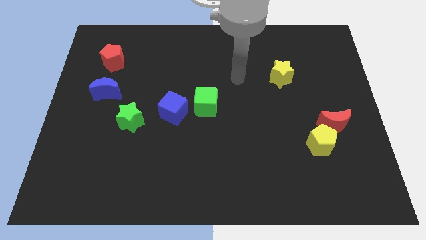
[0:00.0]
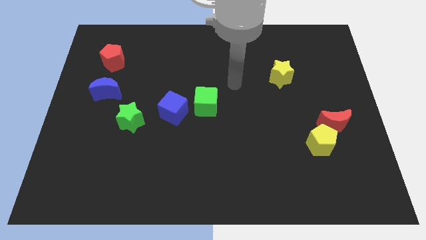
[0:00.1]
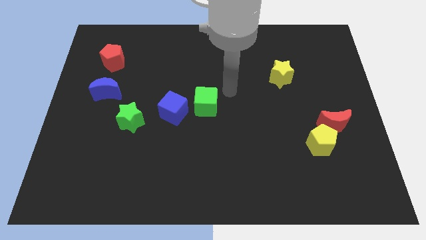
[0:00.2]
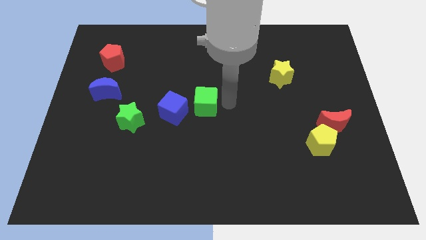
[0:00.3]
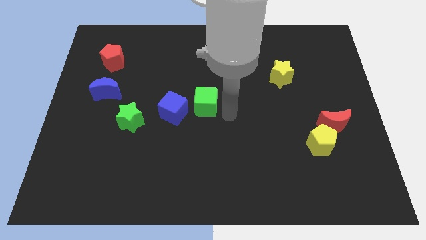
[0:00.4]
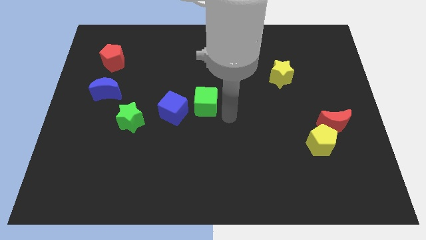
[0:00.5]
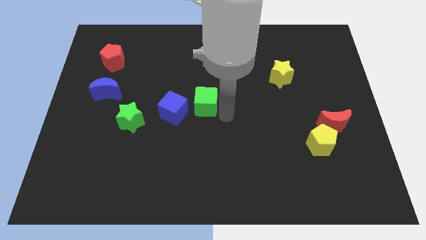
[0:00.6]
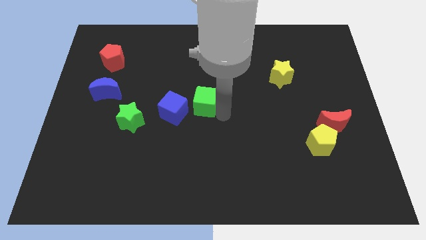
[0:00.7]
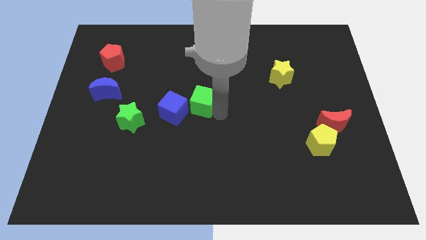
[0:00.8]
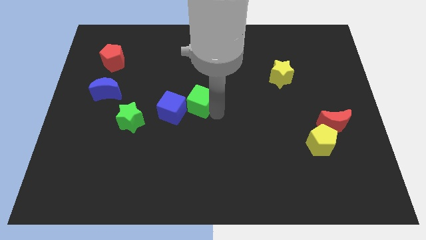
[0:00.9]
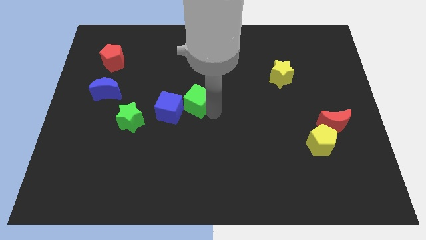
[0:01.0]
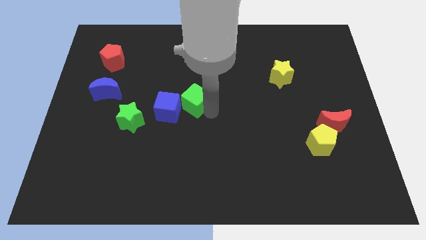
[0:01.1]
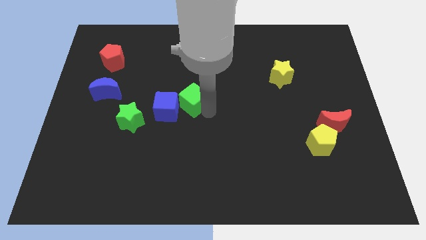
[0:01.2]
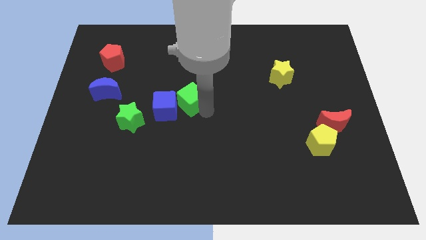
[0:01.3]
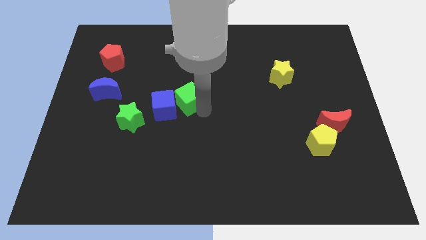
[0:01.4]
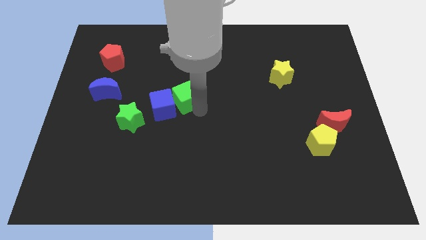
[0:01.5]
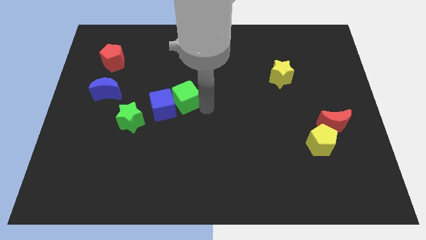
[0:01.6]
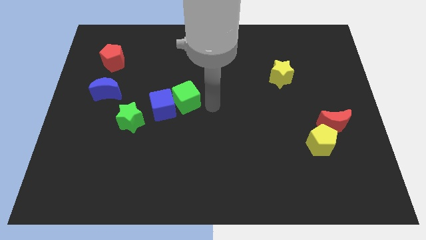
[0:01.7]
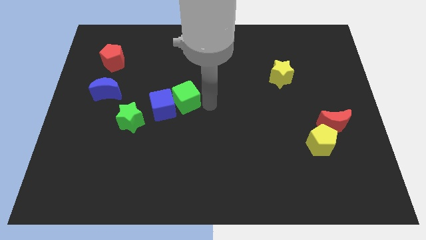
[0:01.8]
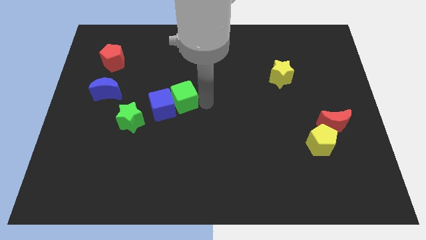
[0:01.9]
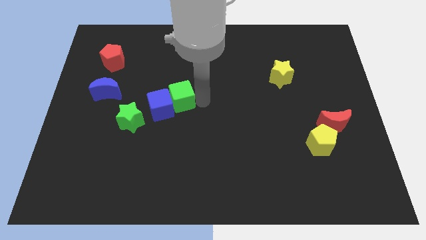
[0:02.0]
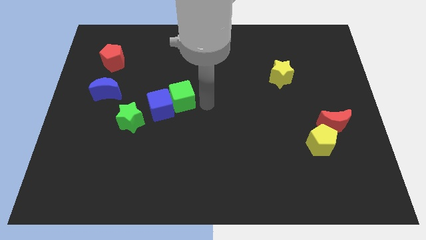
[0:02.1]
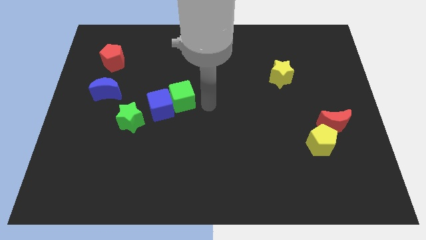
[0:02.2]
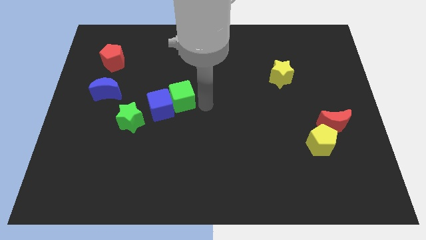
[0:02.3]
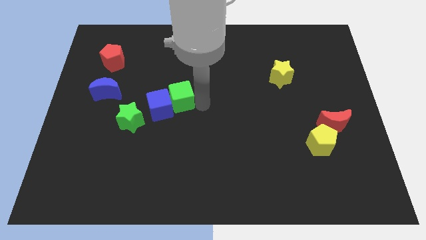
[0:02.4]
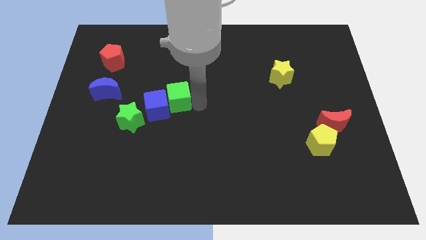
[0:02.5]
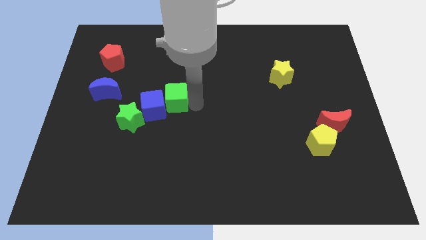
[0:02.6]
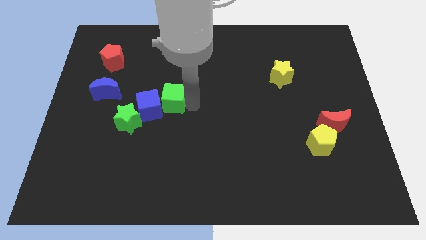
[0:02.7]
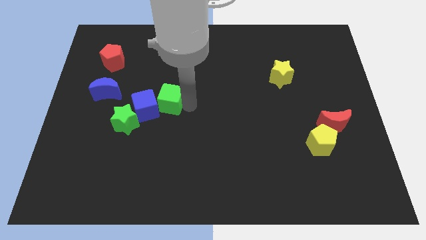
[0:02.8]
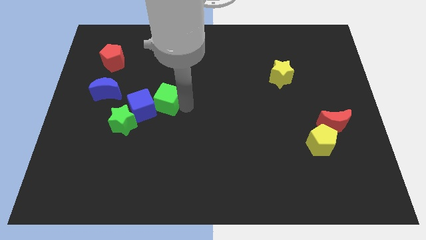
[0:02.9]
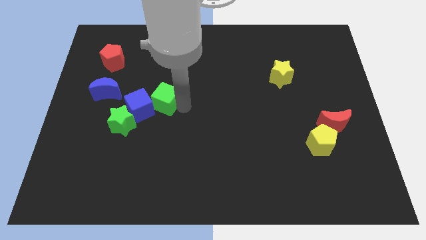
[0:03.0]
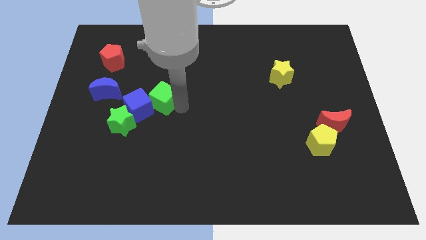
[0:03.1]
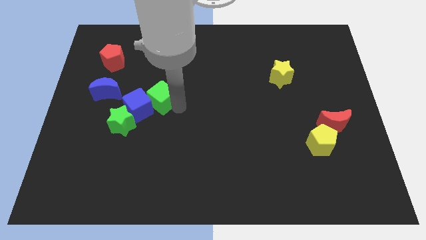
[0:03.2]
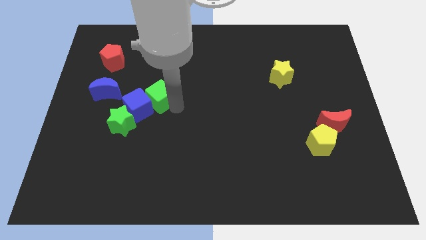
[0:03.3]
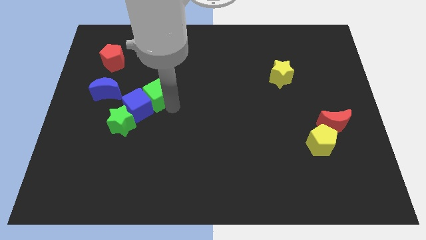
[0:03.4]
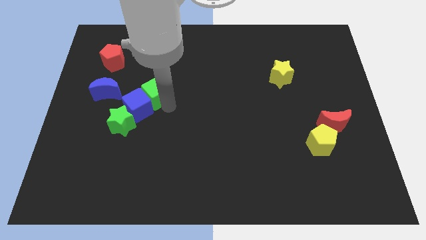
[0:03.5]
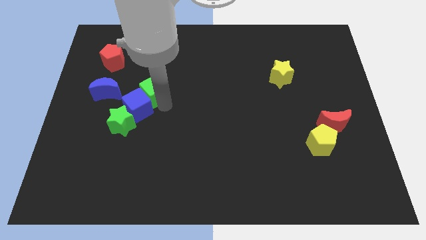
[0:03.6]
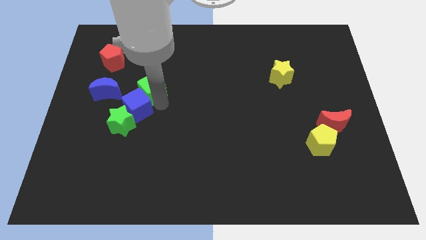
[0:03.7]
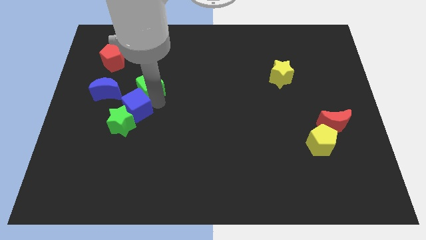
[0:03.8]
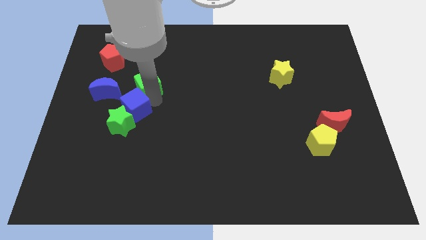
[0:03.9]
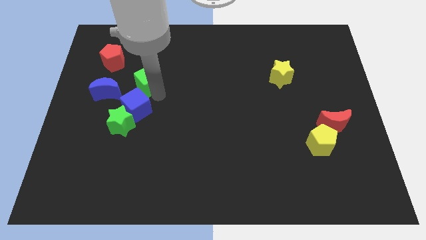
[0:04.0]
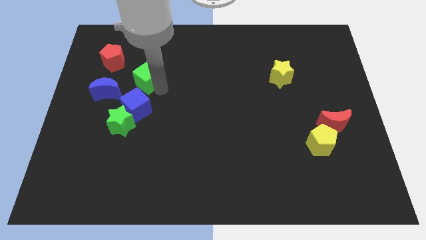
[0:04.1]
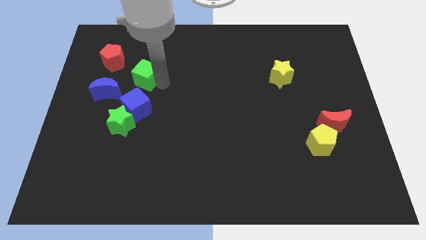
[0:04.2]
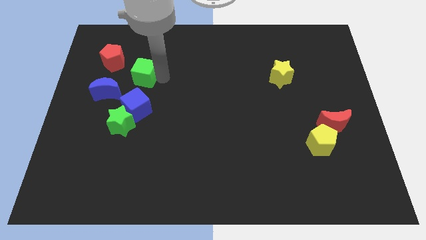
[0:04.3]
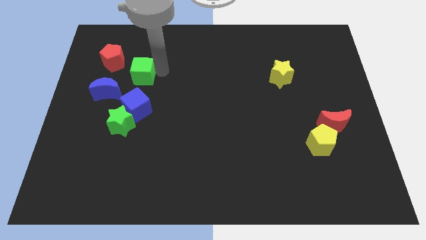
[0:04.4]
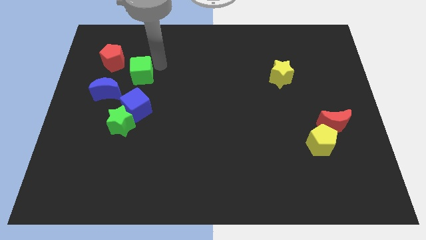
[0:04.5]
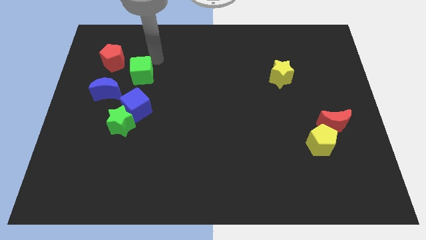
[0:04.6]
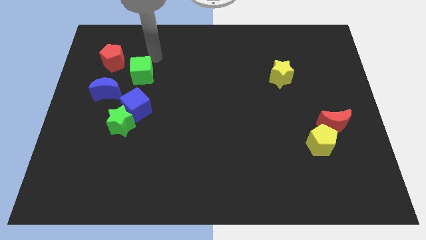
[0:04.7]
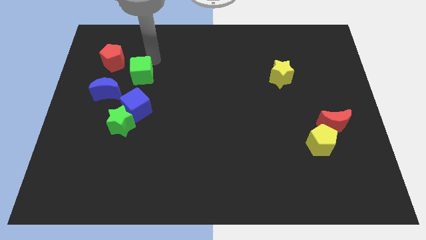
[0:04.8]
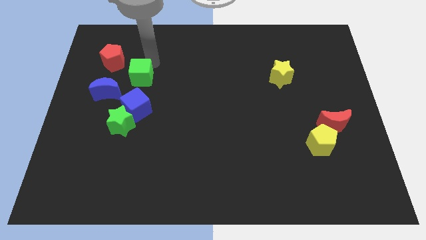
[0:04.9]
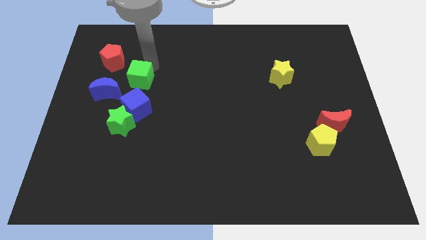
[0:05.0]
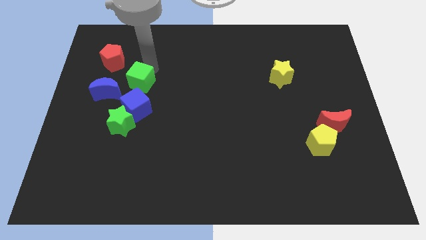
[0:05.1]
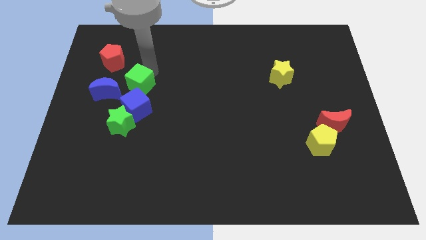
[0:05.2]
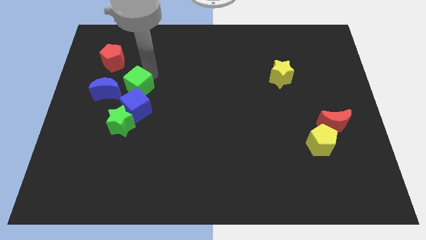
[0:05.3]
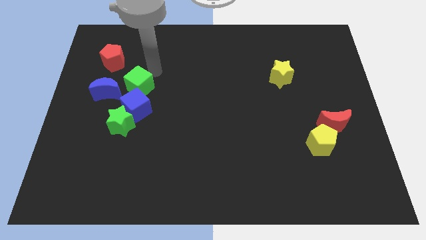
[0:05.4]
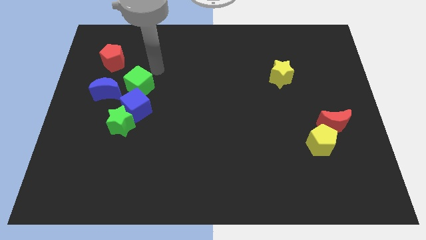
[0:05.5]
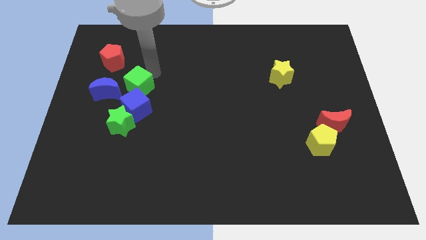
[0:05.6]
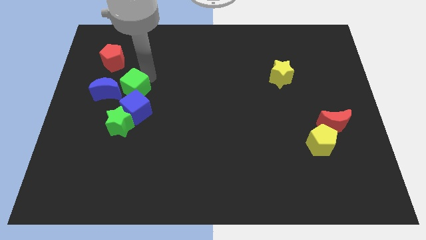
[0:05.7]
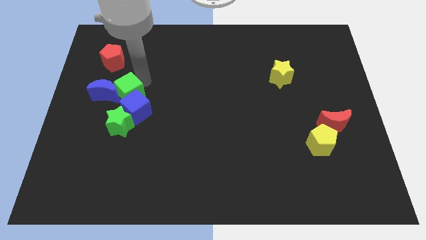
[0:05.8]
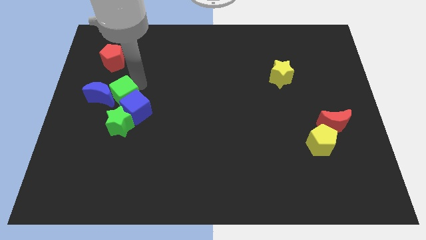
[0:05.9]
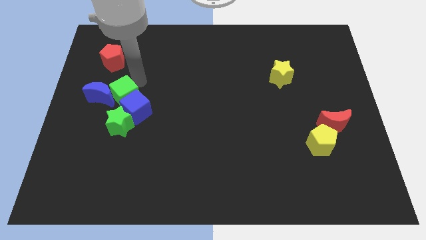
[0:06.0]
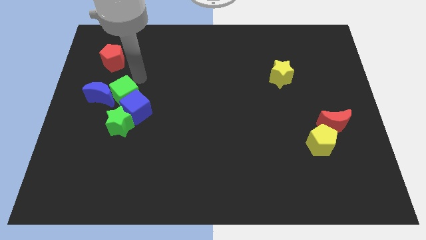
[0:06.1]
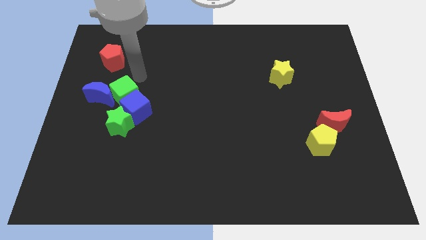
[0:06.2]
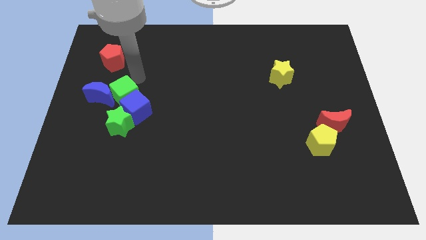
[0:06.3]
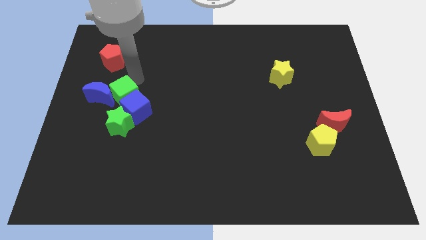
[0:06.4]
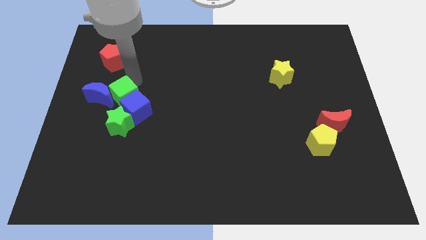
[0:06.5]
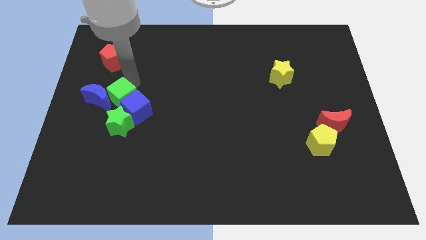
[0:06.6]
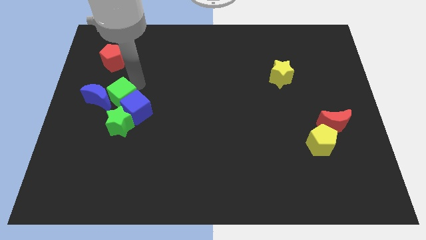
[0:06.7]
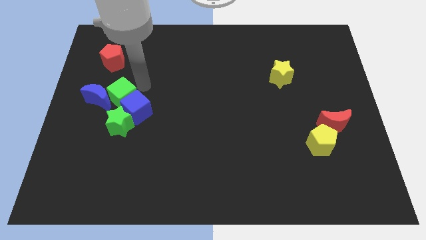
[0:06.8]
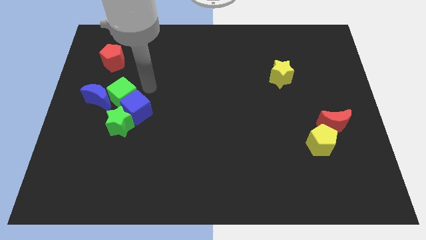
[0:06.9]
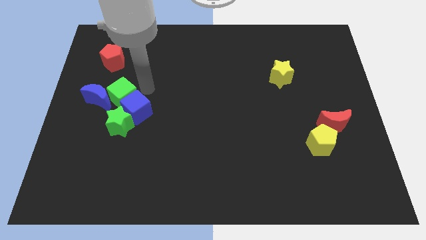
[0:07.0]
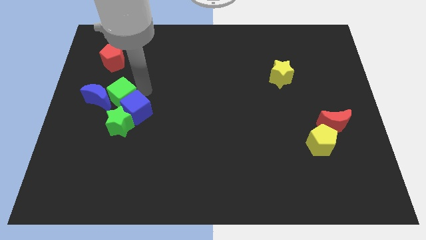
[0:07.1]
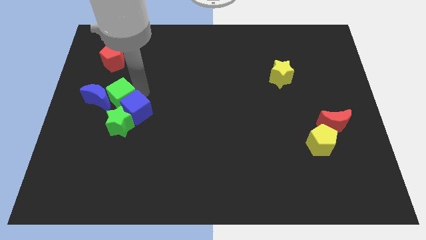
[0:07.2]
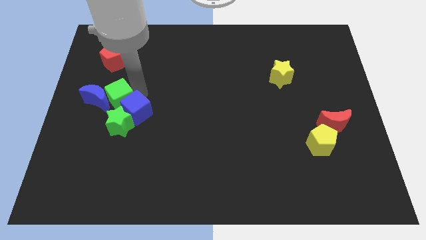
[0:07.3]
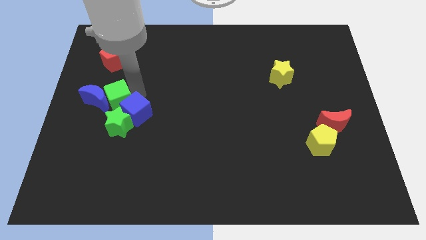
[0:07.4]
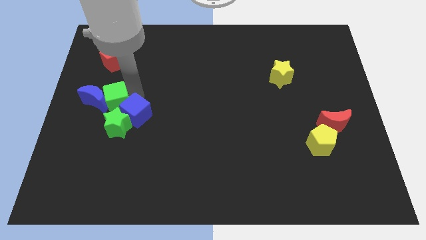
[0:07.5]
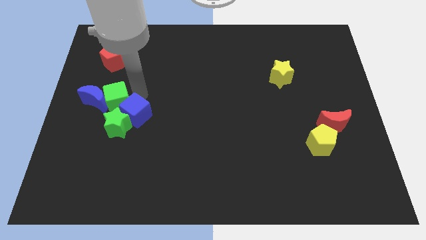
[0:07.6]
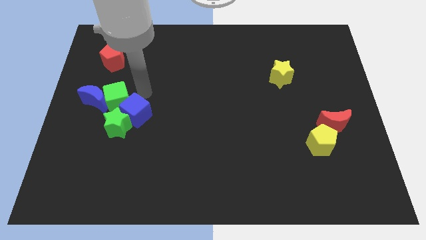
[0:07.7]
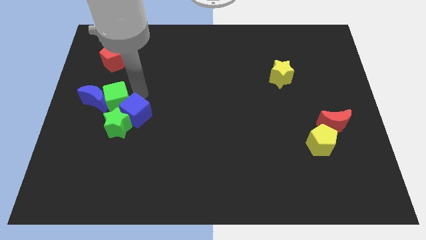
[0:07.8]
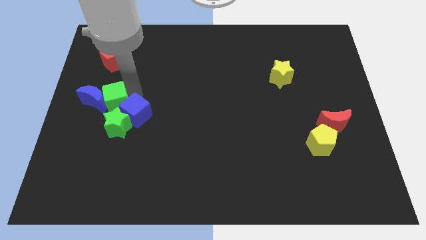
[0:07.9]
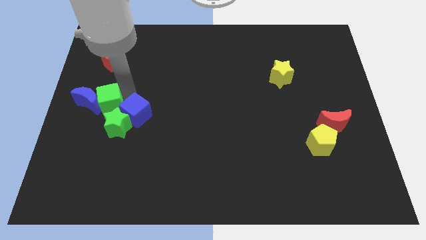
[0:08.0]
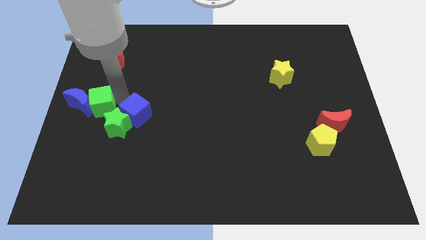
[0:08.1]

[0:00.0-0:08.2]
put the green cube to the left side
